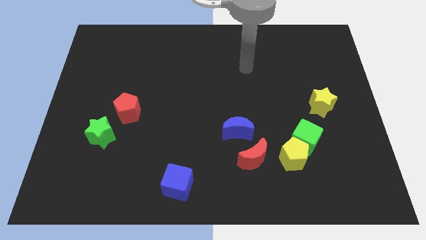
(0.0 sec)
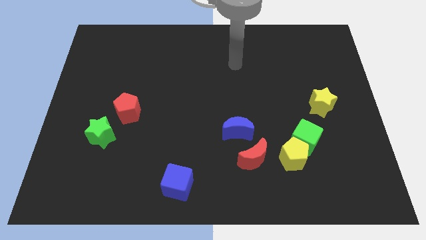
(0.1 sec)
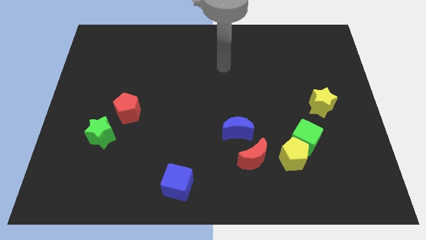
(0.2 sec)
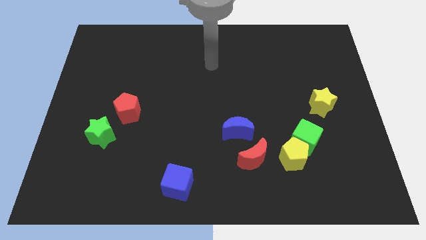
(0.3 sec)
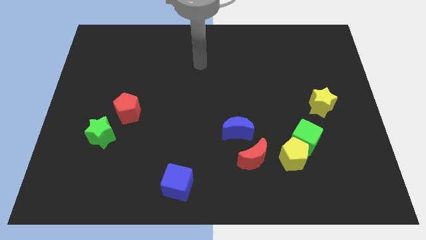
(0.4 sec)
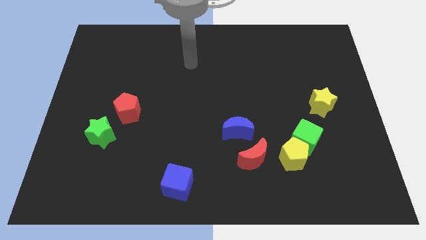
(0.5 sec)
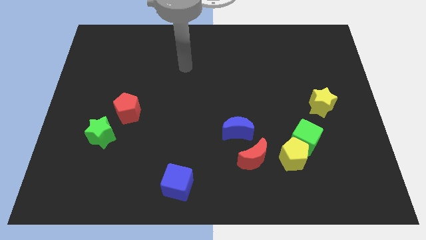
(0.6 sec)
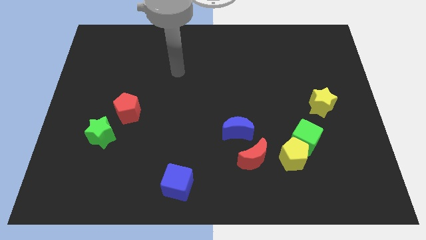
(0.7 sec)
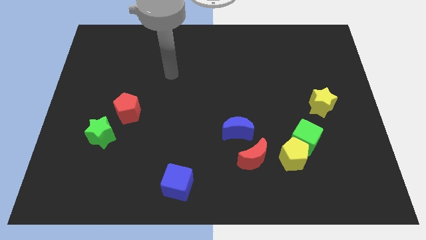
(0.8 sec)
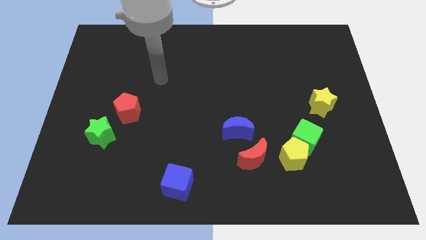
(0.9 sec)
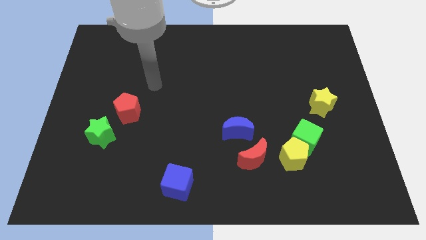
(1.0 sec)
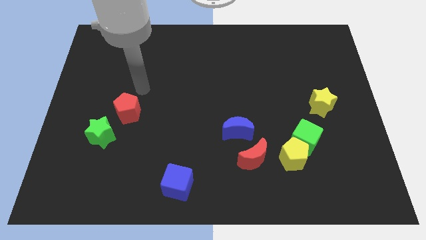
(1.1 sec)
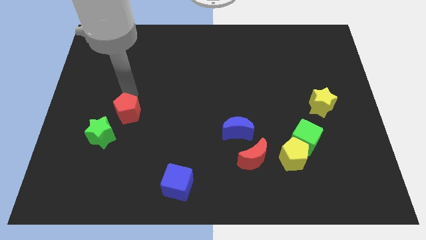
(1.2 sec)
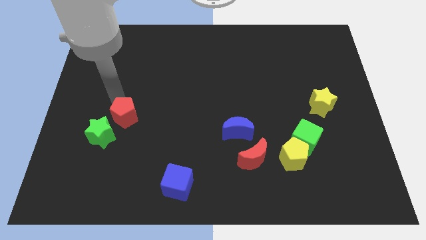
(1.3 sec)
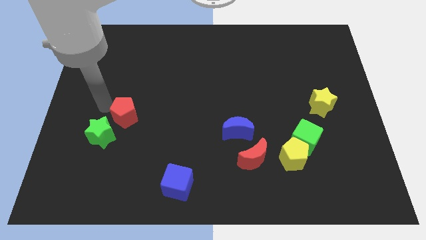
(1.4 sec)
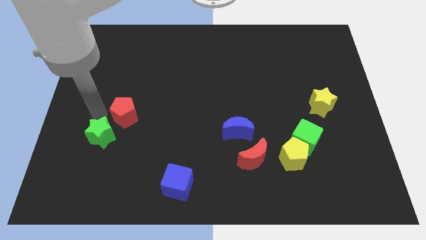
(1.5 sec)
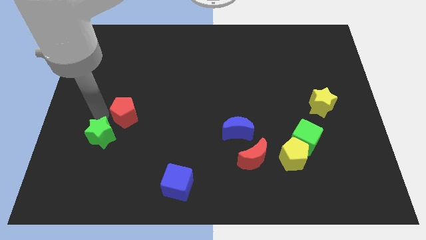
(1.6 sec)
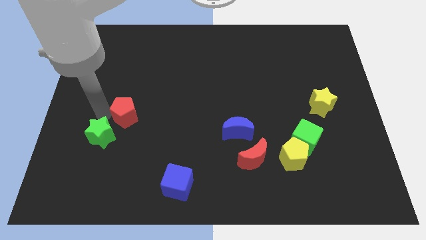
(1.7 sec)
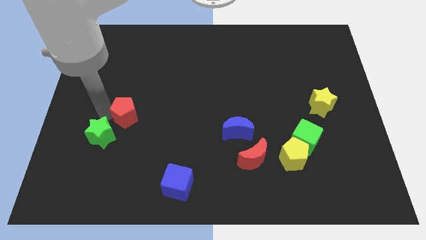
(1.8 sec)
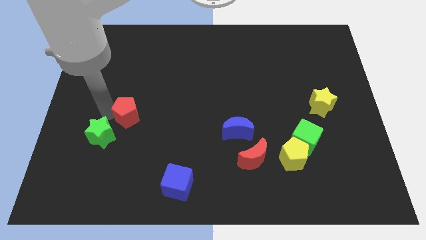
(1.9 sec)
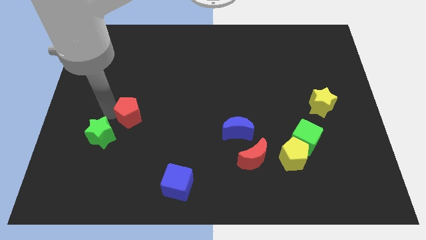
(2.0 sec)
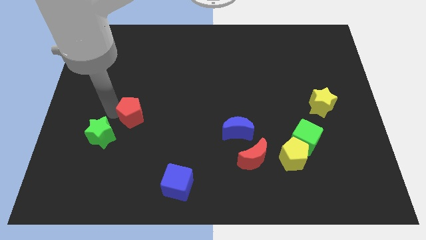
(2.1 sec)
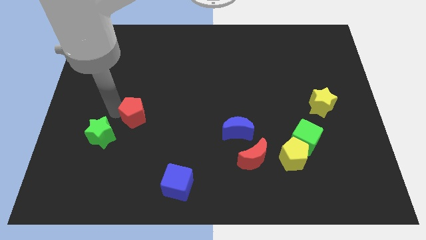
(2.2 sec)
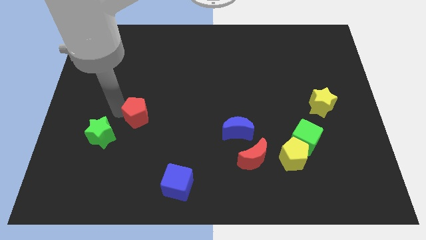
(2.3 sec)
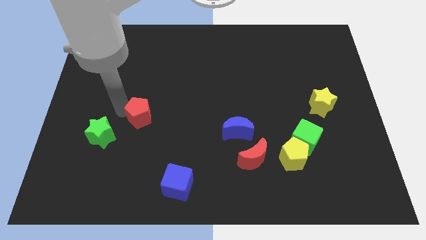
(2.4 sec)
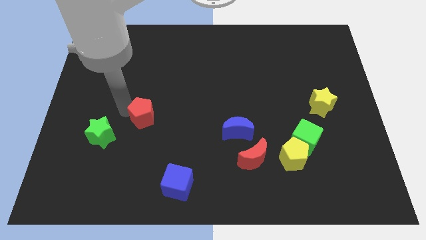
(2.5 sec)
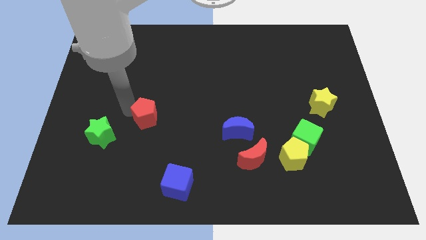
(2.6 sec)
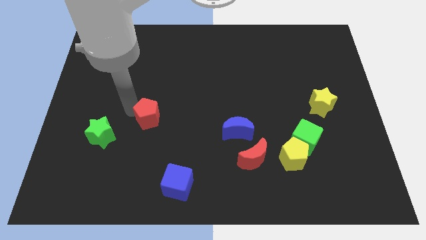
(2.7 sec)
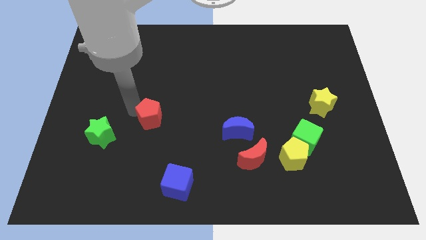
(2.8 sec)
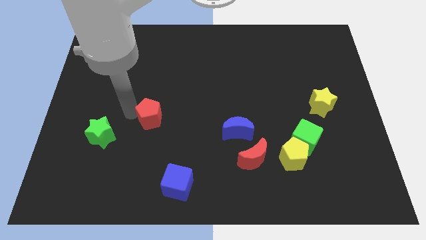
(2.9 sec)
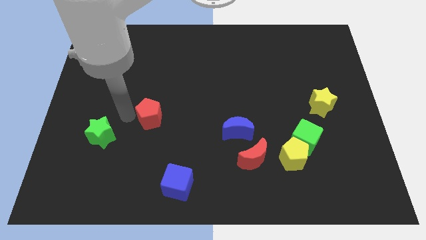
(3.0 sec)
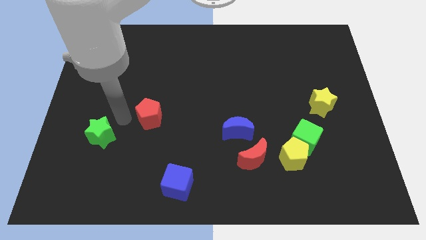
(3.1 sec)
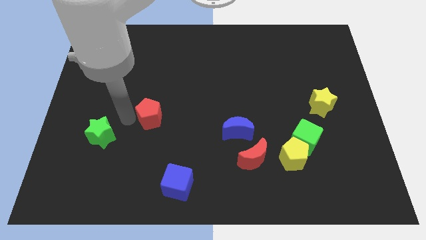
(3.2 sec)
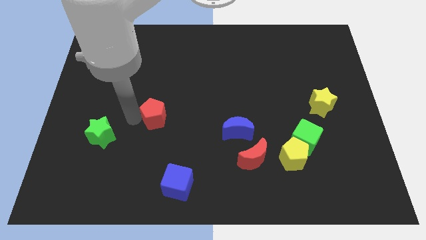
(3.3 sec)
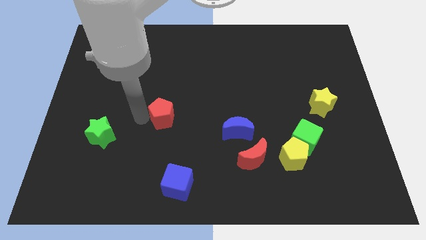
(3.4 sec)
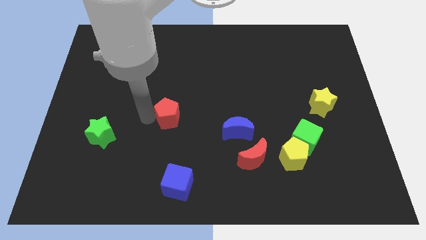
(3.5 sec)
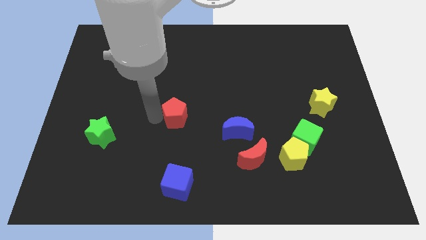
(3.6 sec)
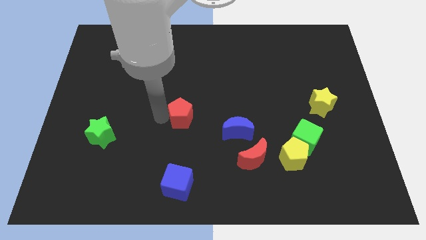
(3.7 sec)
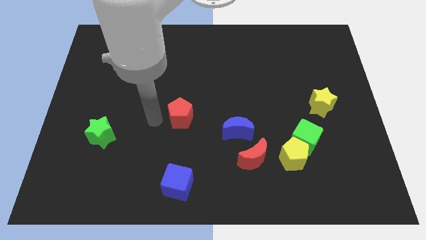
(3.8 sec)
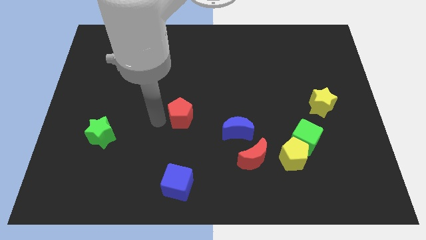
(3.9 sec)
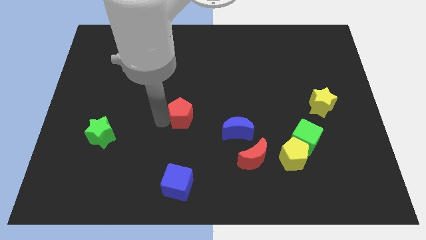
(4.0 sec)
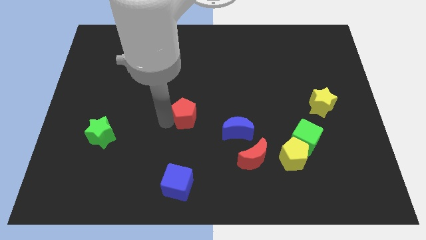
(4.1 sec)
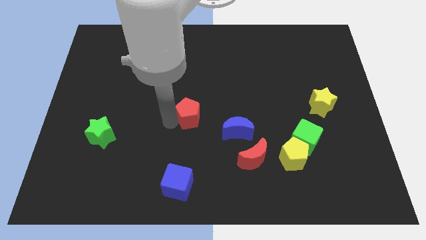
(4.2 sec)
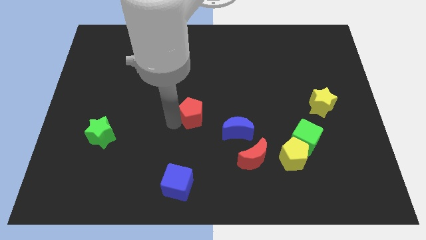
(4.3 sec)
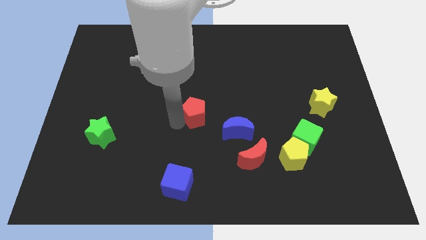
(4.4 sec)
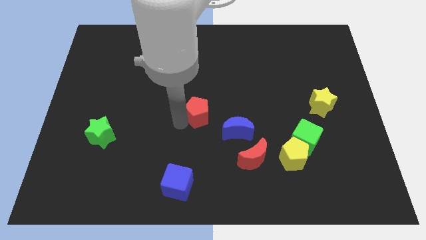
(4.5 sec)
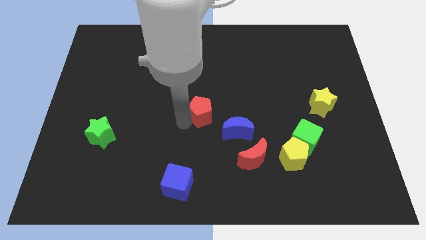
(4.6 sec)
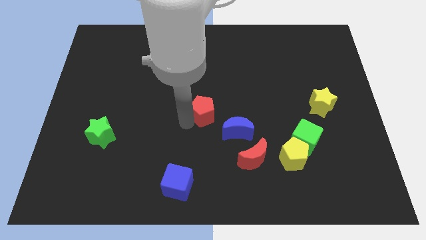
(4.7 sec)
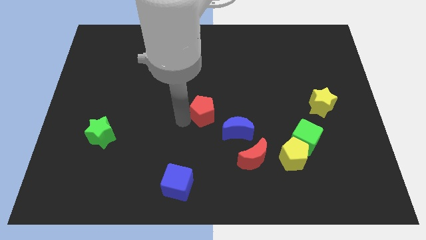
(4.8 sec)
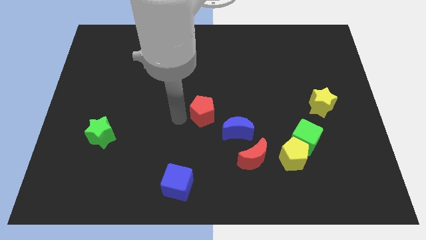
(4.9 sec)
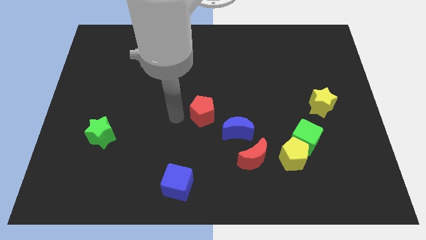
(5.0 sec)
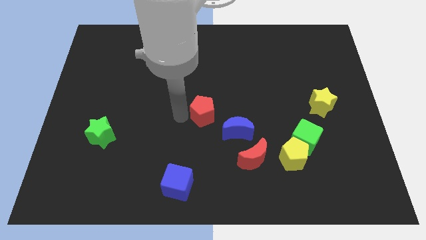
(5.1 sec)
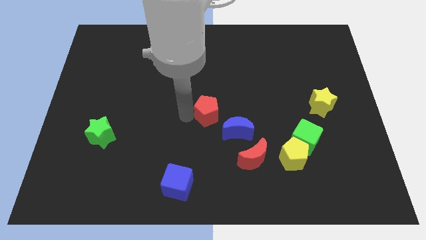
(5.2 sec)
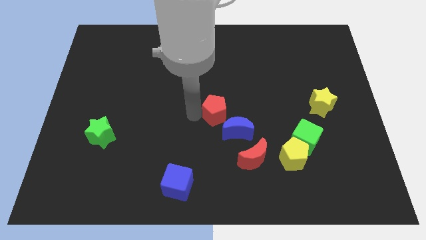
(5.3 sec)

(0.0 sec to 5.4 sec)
push the red pentagon to the right

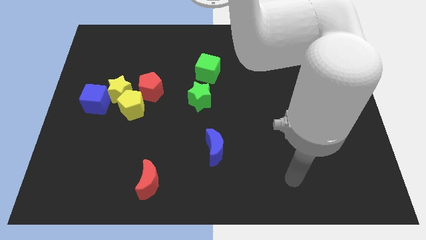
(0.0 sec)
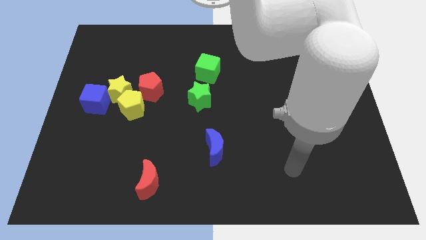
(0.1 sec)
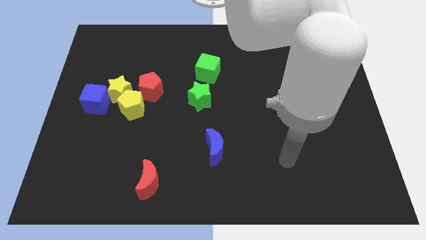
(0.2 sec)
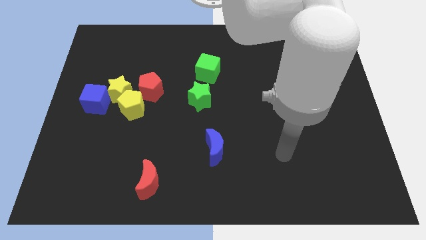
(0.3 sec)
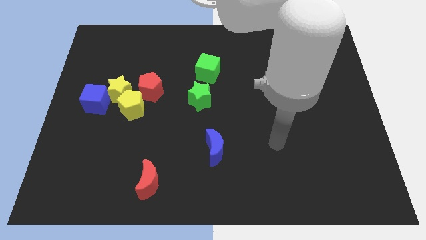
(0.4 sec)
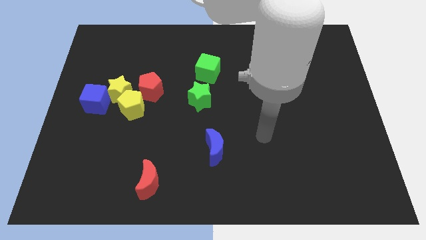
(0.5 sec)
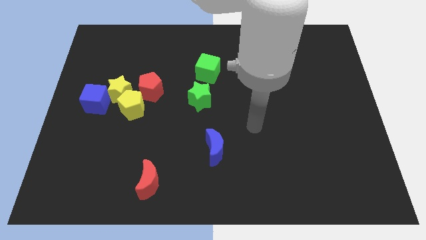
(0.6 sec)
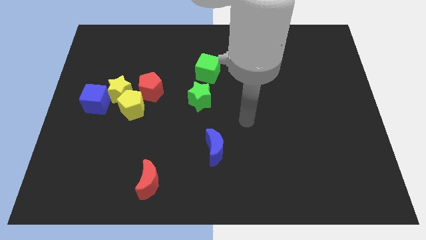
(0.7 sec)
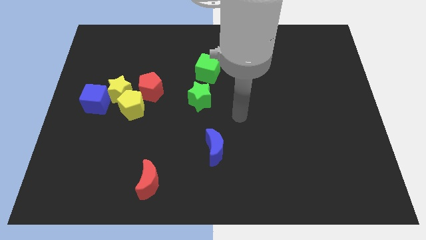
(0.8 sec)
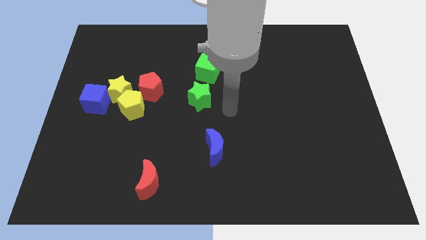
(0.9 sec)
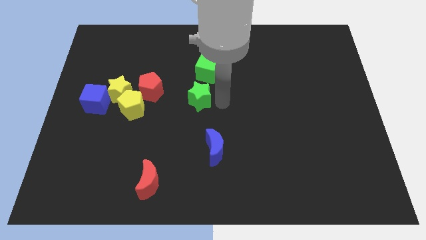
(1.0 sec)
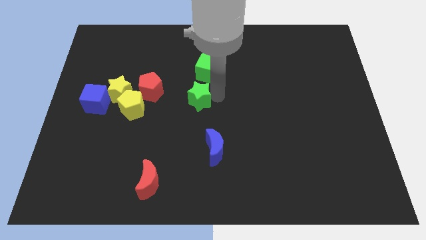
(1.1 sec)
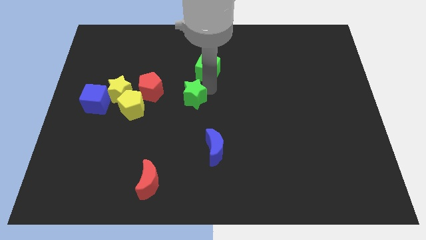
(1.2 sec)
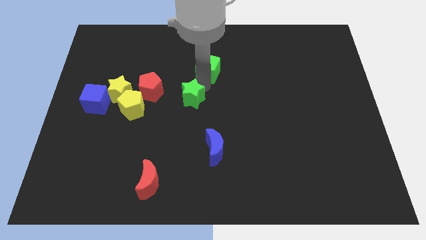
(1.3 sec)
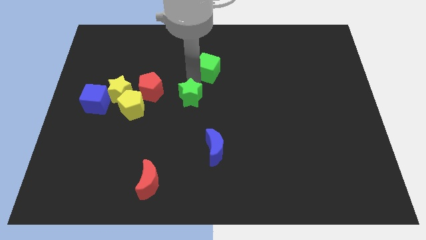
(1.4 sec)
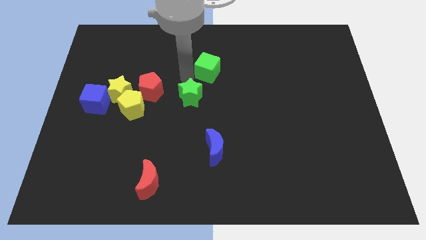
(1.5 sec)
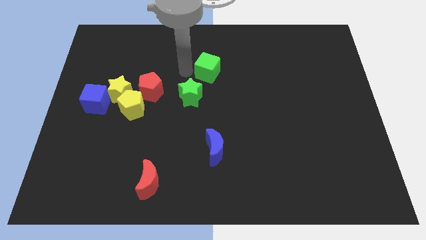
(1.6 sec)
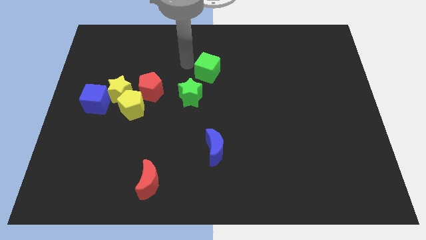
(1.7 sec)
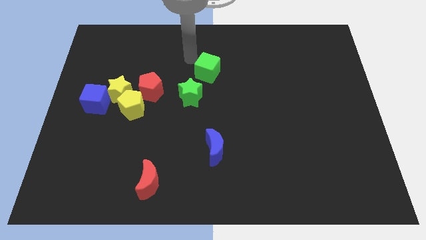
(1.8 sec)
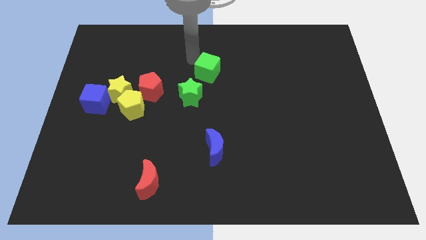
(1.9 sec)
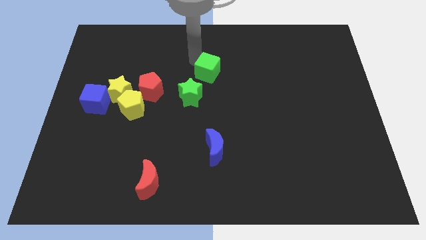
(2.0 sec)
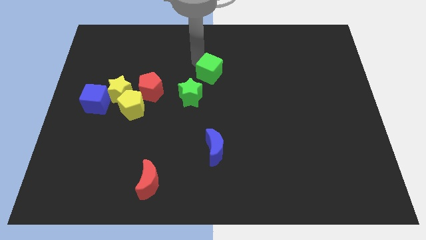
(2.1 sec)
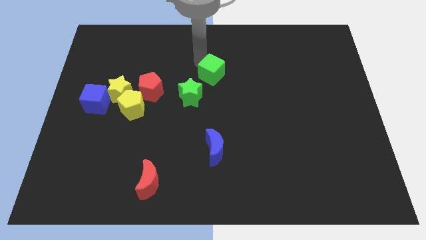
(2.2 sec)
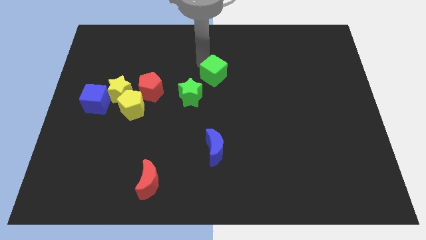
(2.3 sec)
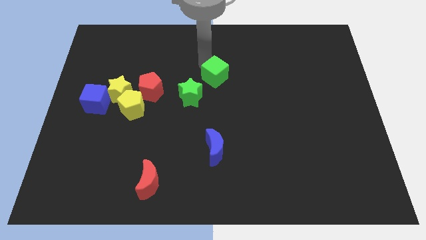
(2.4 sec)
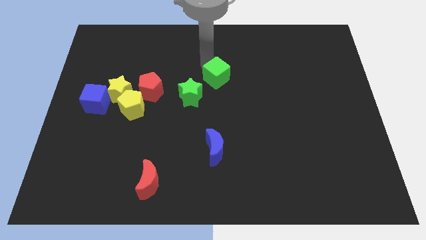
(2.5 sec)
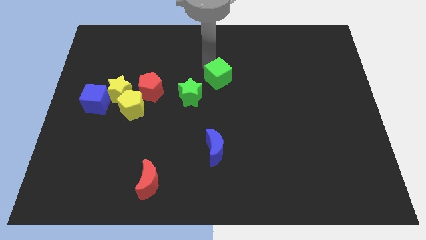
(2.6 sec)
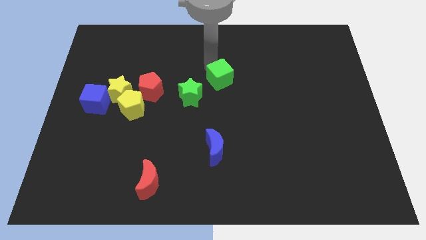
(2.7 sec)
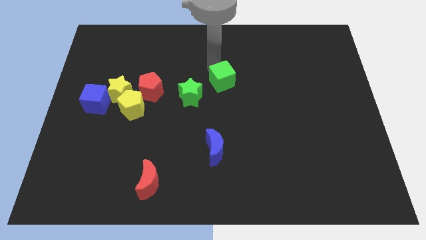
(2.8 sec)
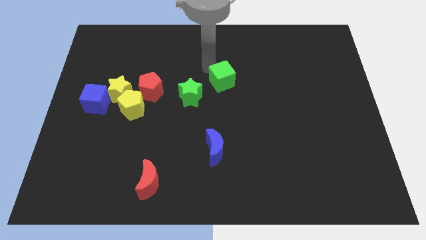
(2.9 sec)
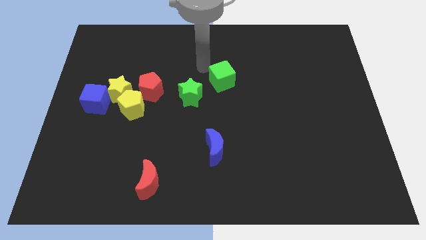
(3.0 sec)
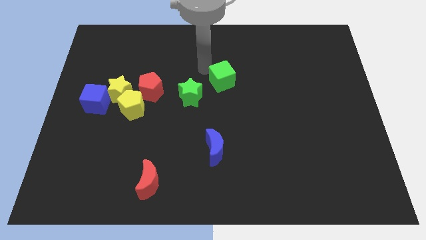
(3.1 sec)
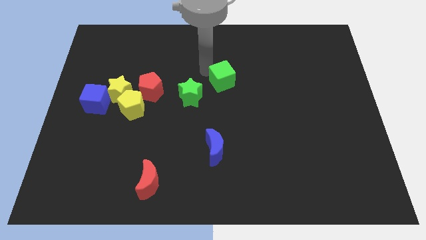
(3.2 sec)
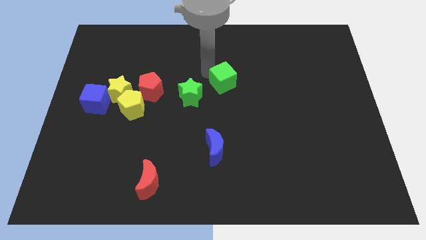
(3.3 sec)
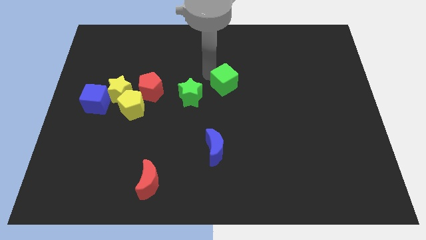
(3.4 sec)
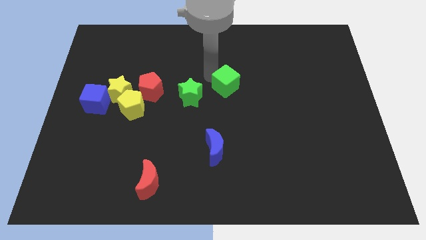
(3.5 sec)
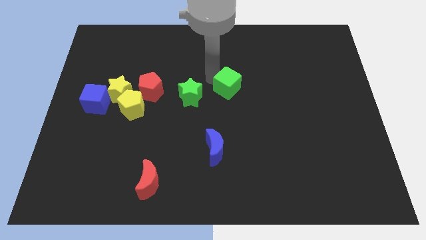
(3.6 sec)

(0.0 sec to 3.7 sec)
push the green cube down and right a little
